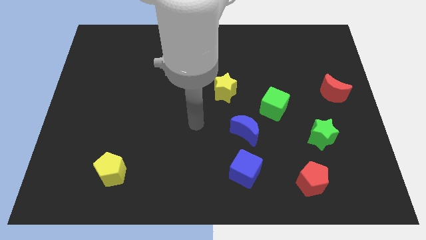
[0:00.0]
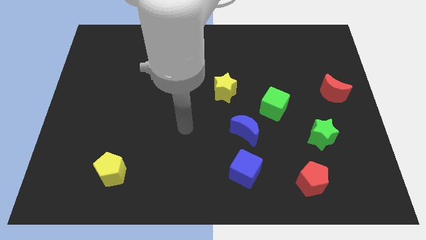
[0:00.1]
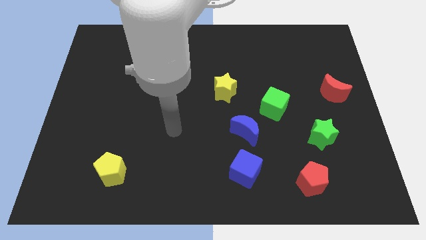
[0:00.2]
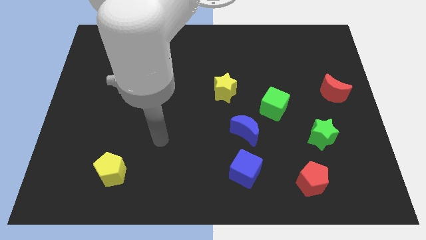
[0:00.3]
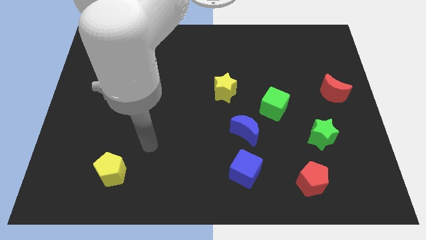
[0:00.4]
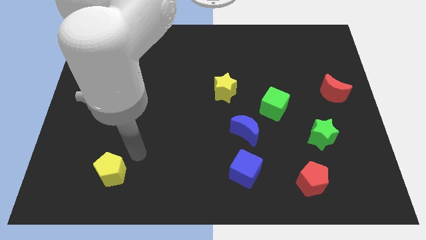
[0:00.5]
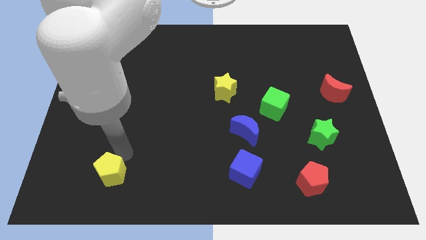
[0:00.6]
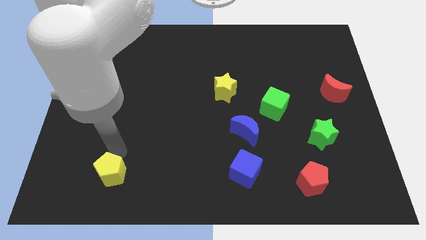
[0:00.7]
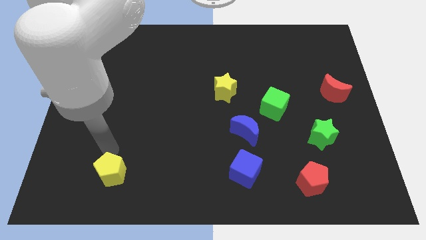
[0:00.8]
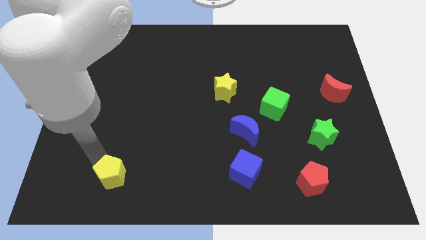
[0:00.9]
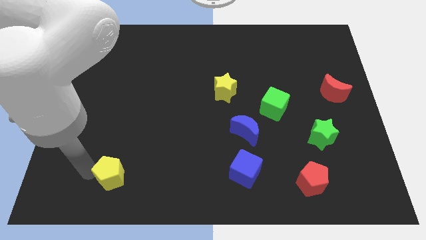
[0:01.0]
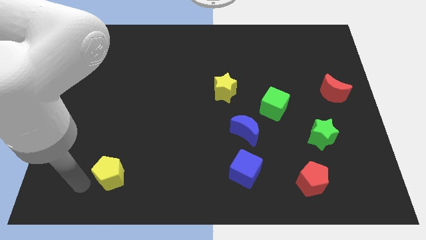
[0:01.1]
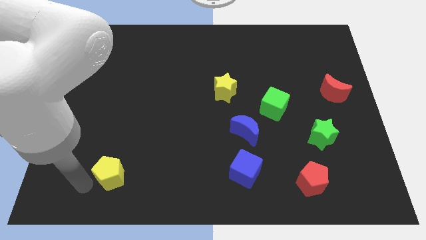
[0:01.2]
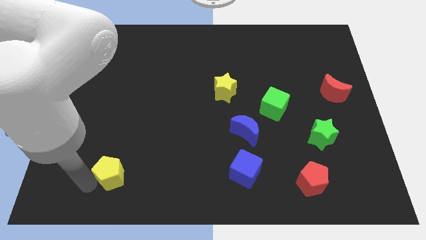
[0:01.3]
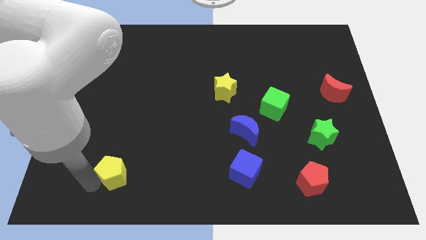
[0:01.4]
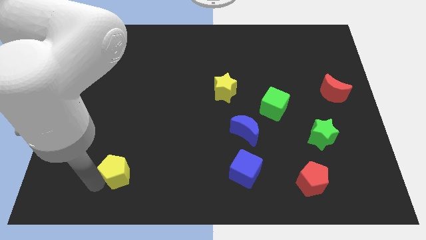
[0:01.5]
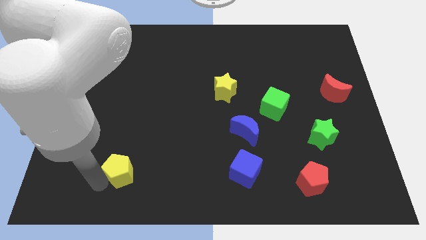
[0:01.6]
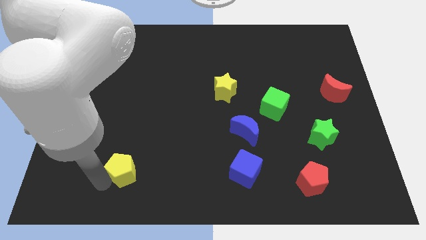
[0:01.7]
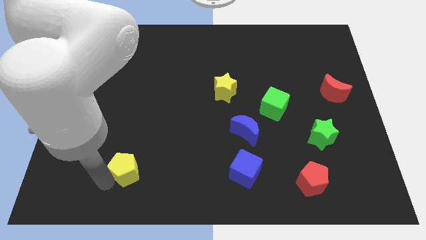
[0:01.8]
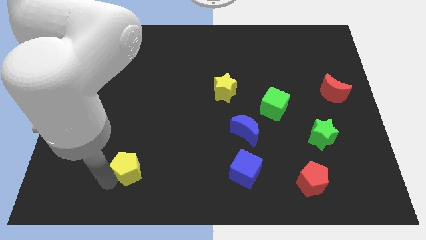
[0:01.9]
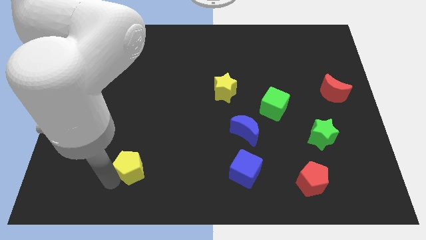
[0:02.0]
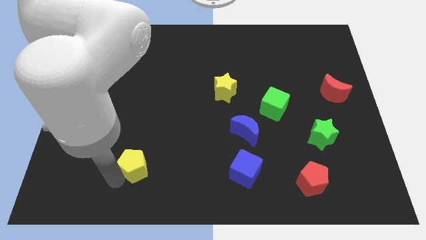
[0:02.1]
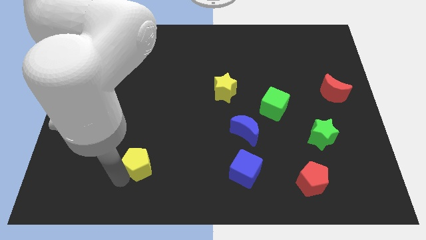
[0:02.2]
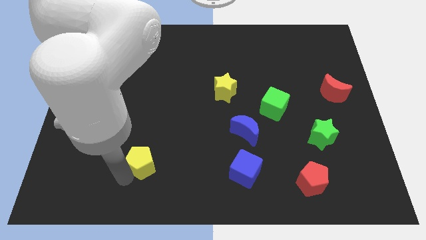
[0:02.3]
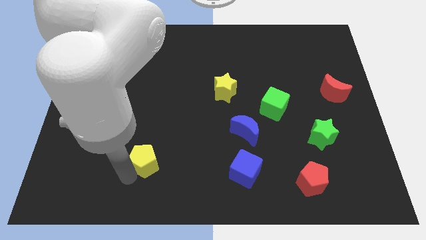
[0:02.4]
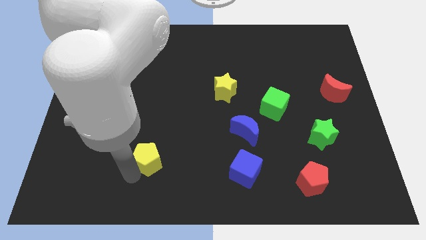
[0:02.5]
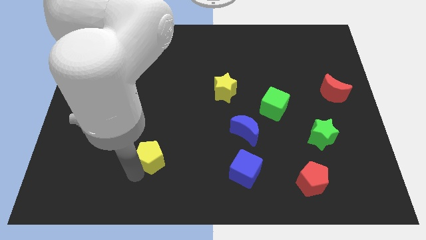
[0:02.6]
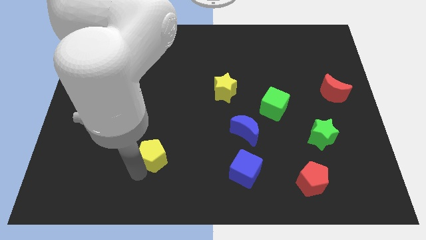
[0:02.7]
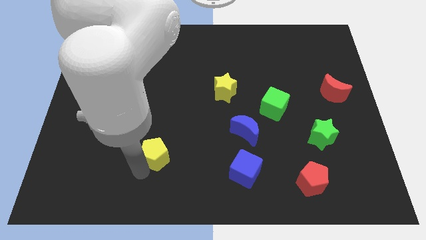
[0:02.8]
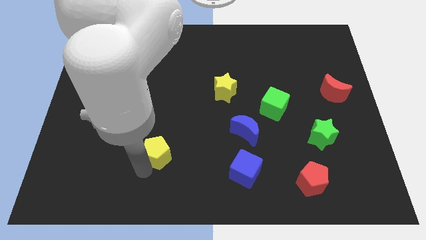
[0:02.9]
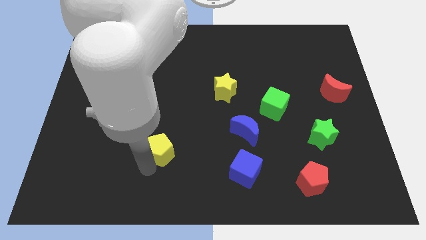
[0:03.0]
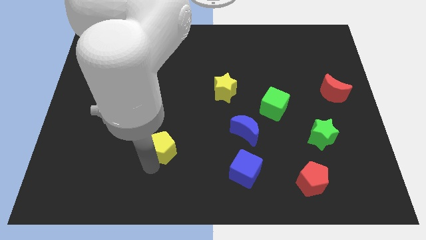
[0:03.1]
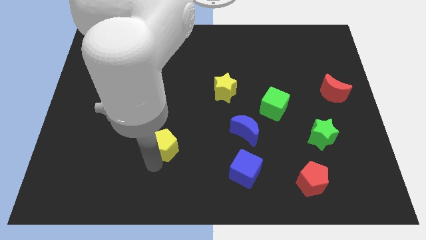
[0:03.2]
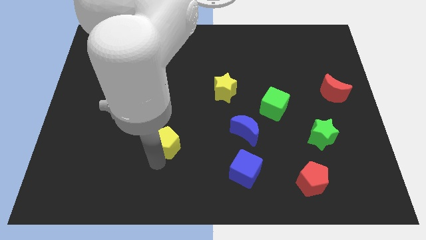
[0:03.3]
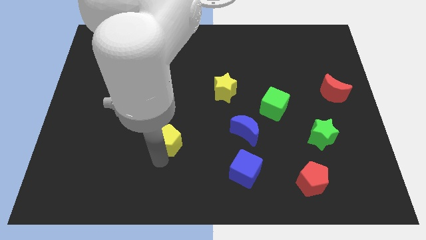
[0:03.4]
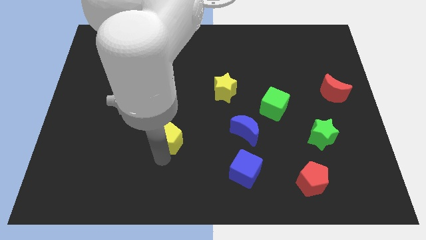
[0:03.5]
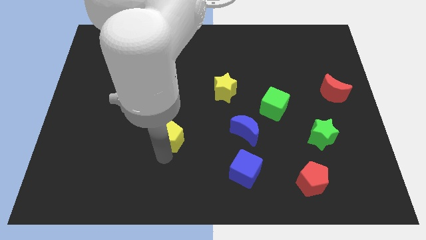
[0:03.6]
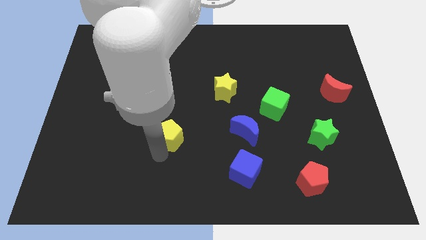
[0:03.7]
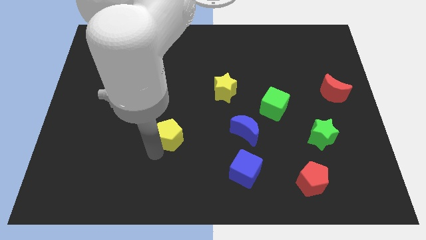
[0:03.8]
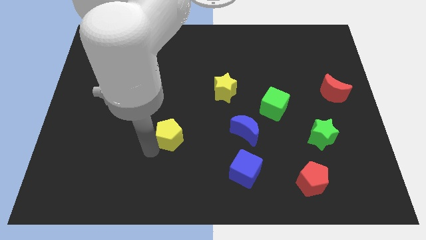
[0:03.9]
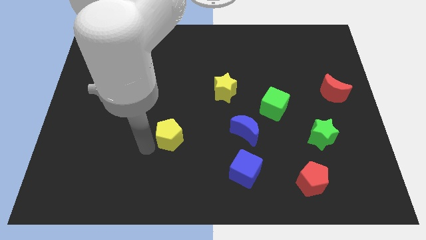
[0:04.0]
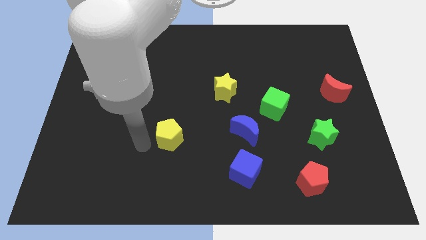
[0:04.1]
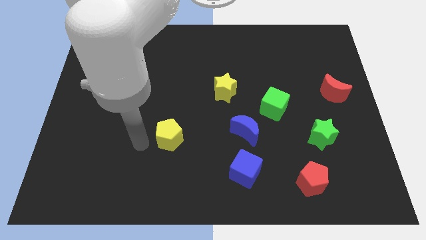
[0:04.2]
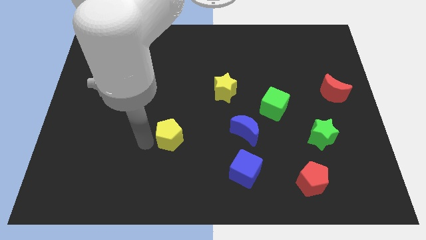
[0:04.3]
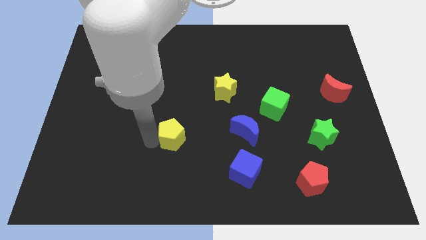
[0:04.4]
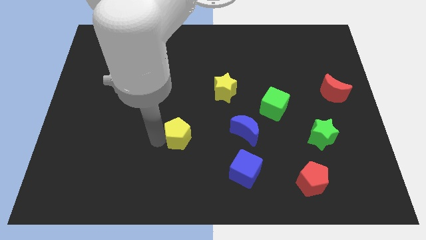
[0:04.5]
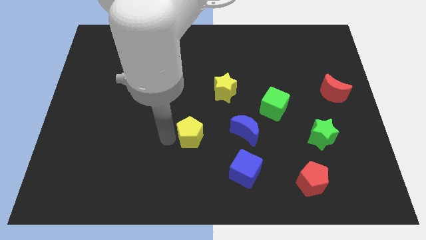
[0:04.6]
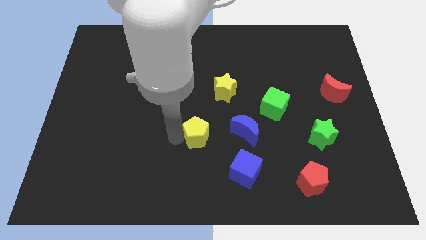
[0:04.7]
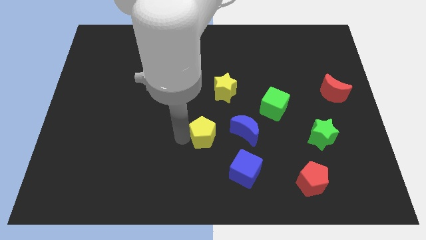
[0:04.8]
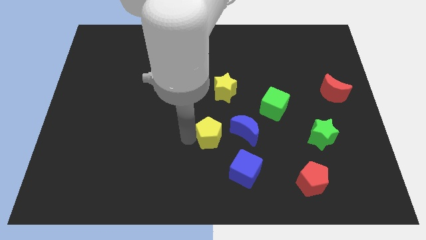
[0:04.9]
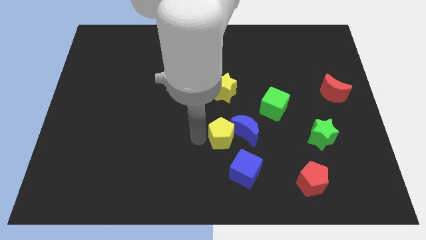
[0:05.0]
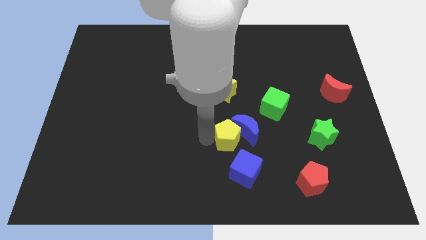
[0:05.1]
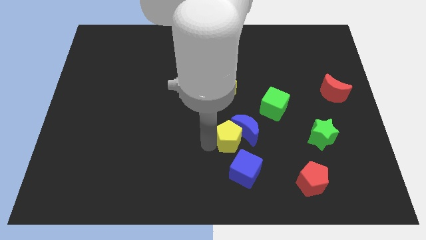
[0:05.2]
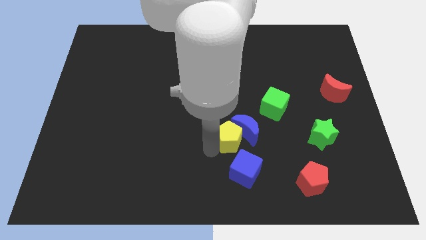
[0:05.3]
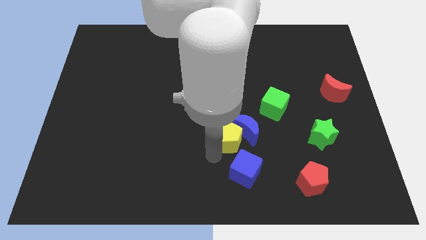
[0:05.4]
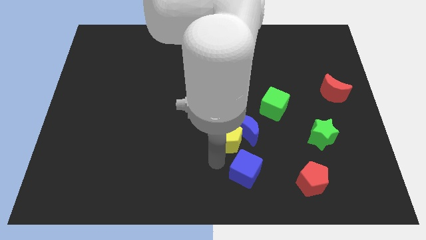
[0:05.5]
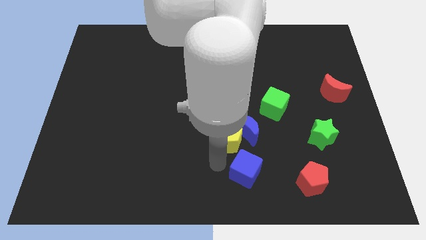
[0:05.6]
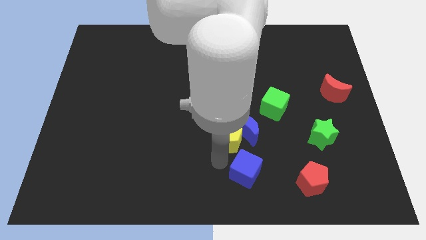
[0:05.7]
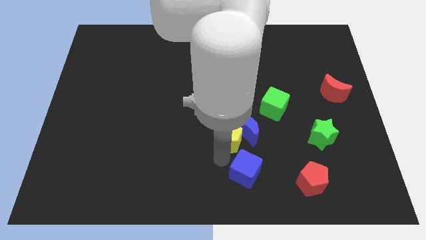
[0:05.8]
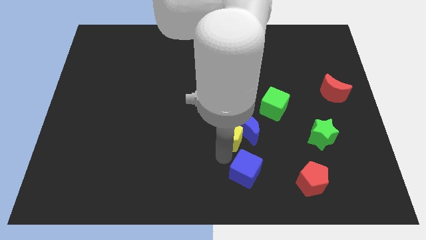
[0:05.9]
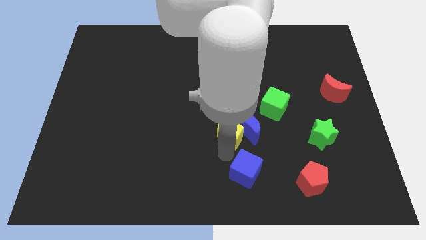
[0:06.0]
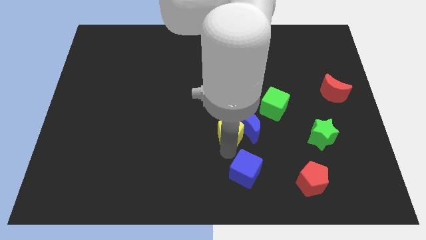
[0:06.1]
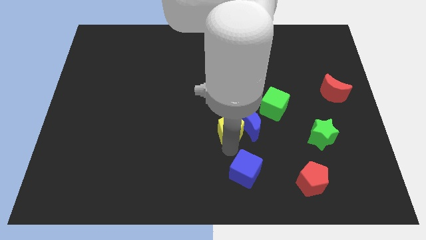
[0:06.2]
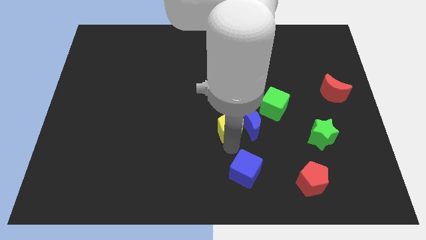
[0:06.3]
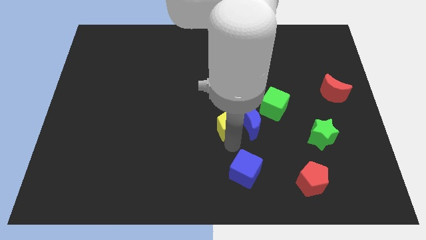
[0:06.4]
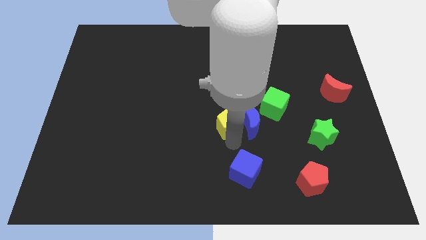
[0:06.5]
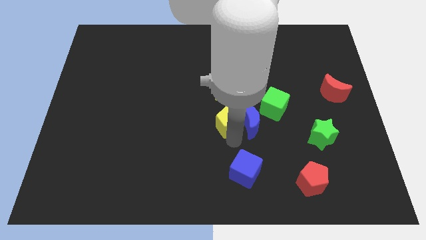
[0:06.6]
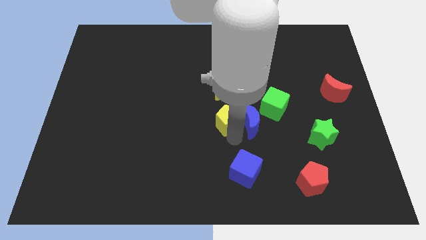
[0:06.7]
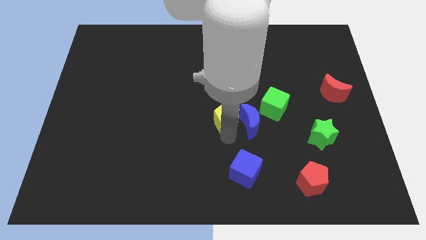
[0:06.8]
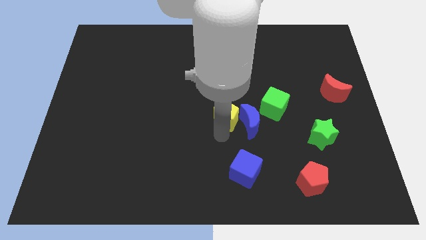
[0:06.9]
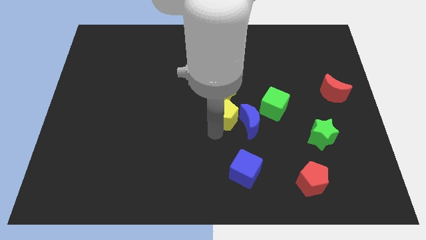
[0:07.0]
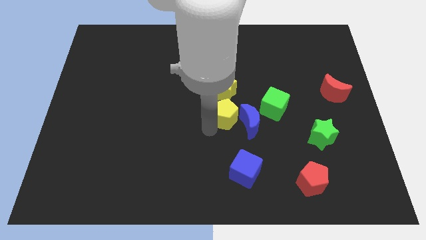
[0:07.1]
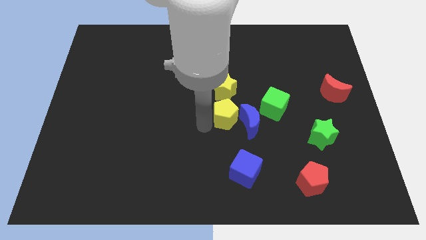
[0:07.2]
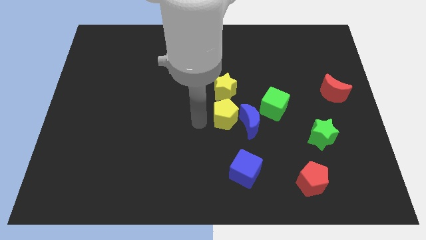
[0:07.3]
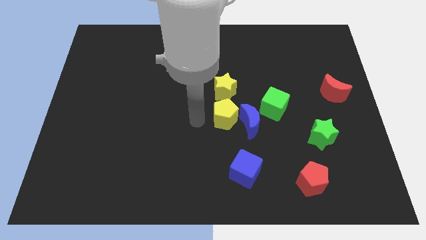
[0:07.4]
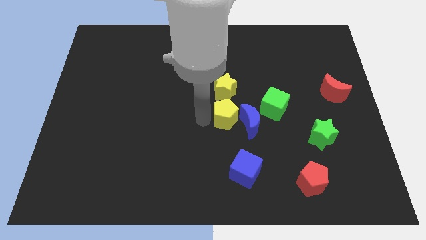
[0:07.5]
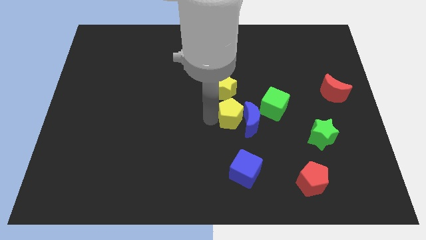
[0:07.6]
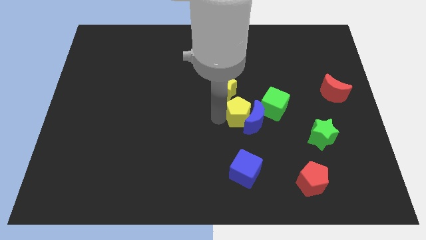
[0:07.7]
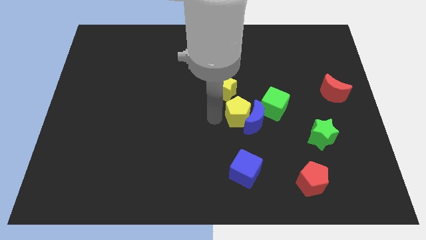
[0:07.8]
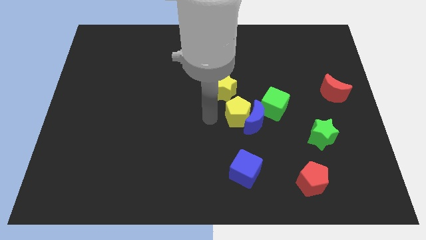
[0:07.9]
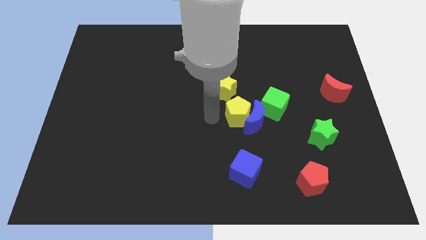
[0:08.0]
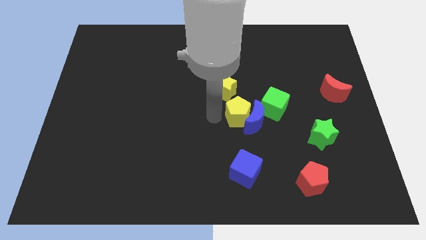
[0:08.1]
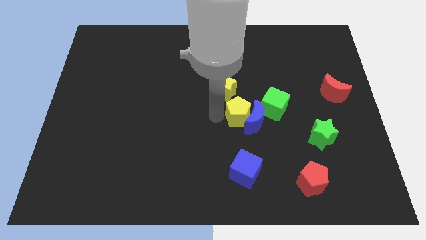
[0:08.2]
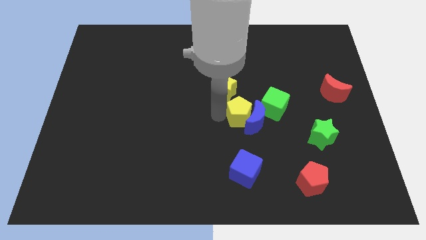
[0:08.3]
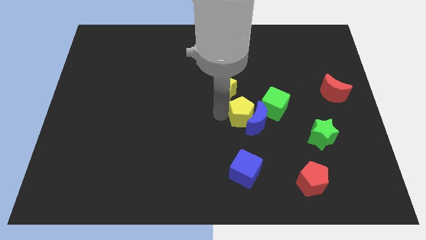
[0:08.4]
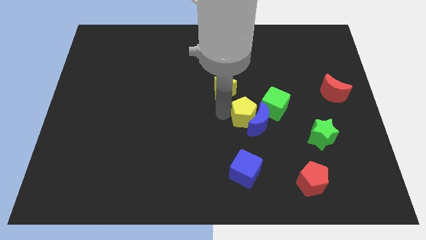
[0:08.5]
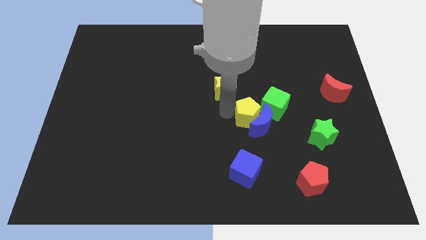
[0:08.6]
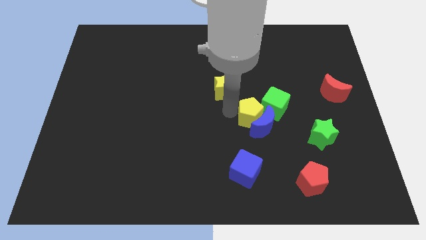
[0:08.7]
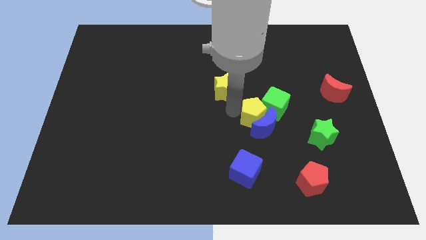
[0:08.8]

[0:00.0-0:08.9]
push the yellow pentagon towards the green cube
